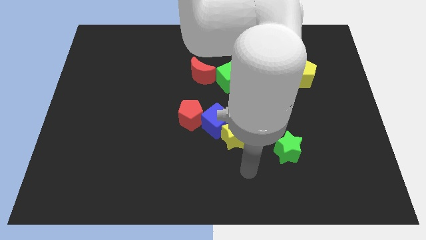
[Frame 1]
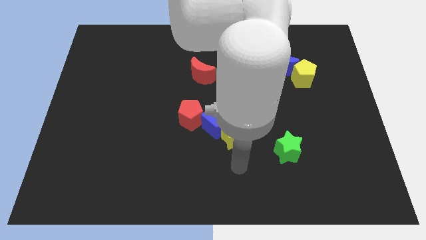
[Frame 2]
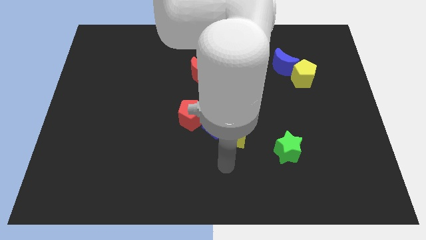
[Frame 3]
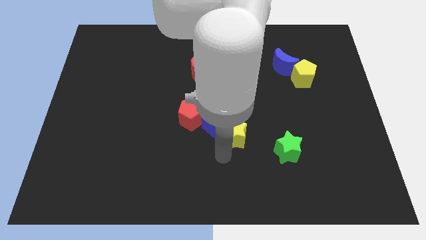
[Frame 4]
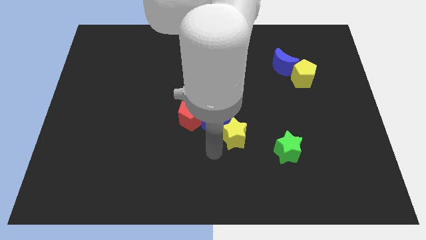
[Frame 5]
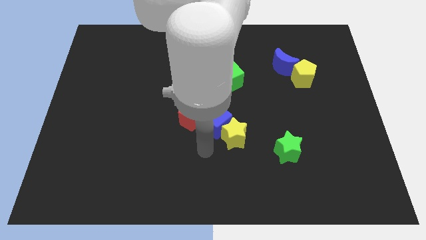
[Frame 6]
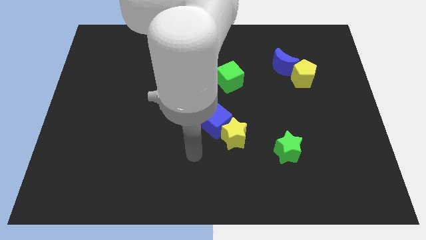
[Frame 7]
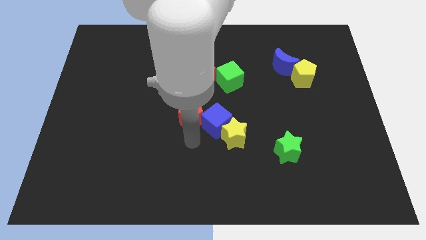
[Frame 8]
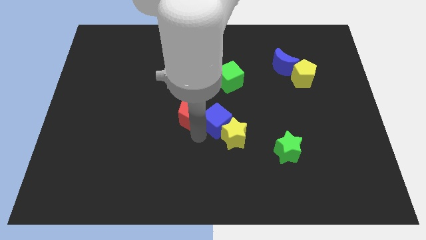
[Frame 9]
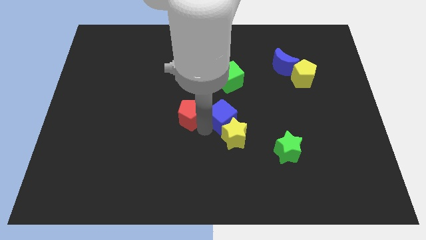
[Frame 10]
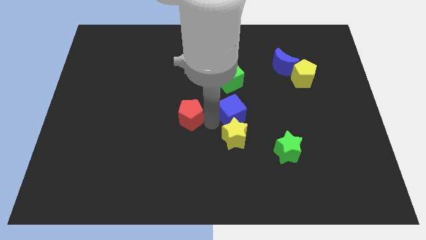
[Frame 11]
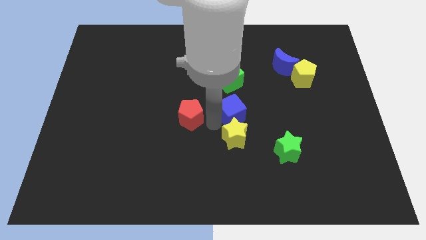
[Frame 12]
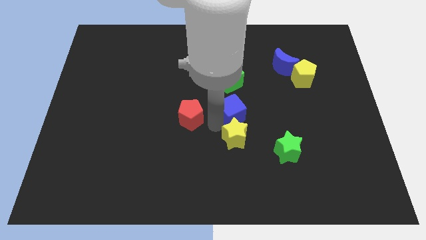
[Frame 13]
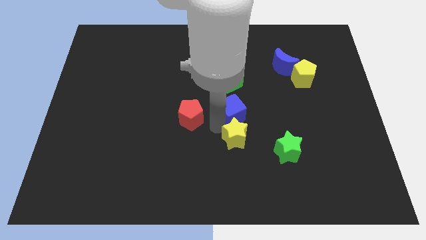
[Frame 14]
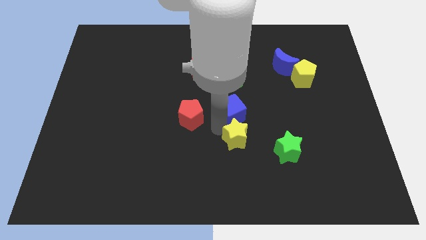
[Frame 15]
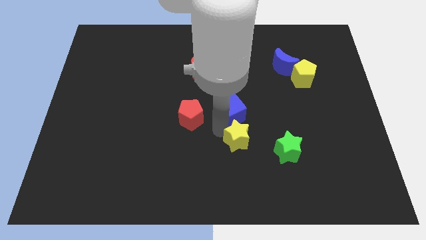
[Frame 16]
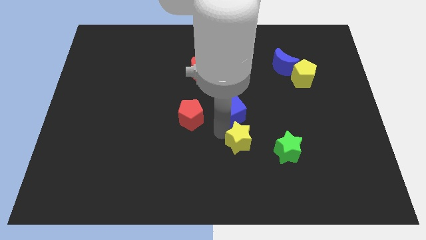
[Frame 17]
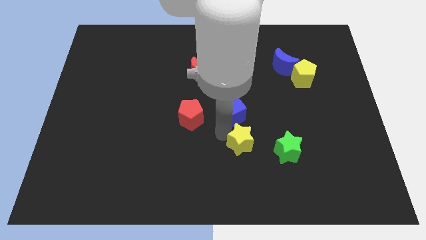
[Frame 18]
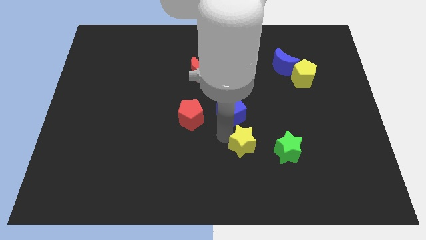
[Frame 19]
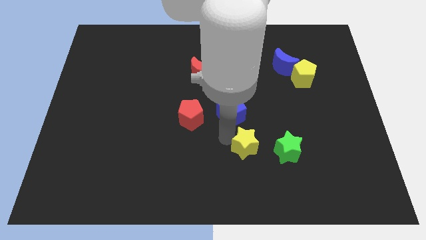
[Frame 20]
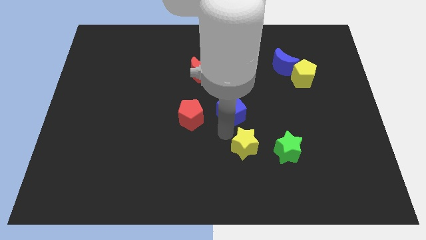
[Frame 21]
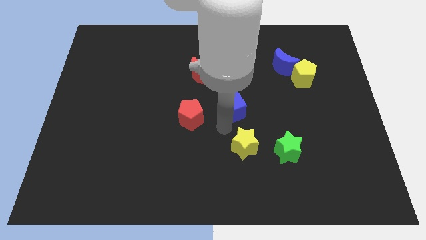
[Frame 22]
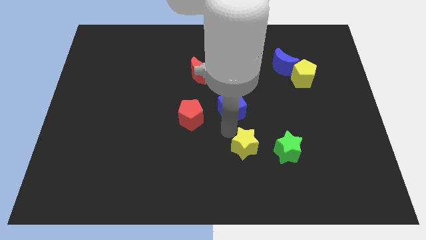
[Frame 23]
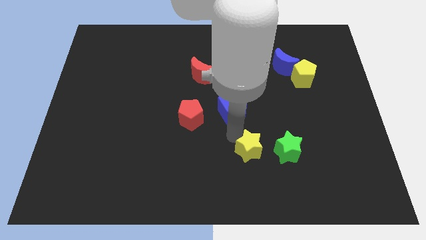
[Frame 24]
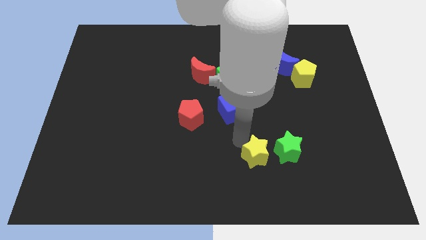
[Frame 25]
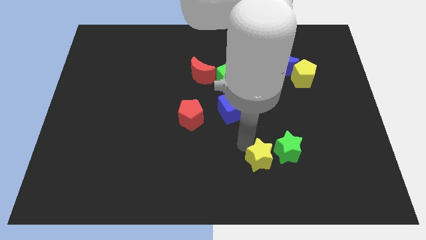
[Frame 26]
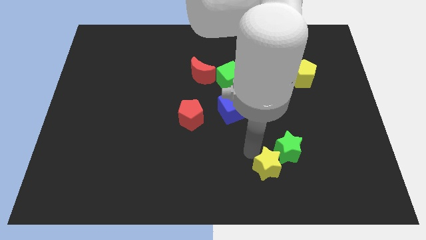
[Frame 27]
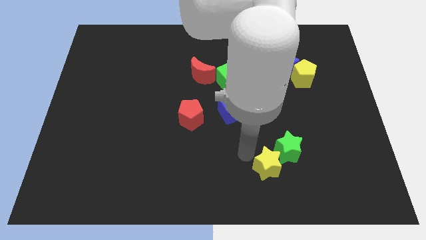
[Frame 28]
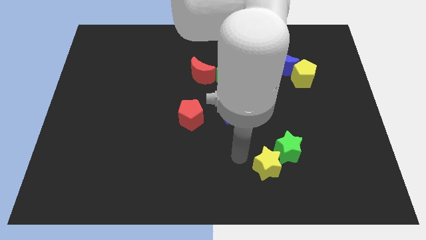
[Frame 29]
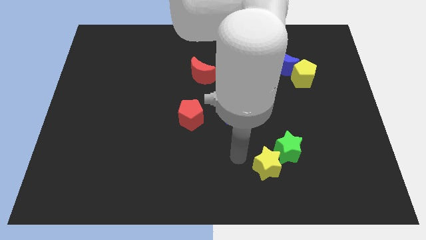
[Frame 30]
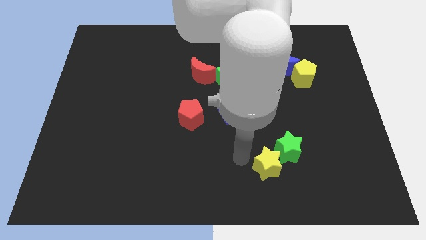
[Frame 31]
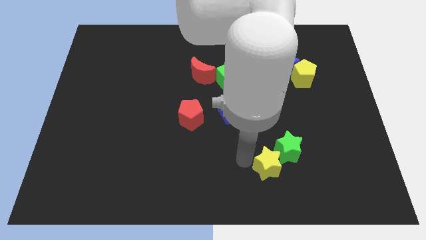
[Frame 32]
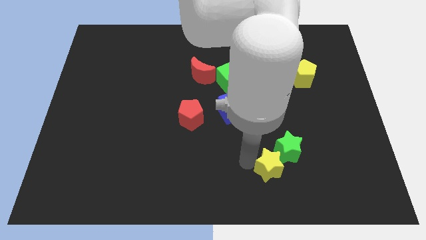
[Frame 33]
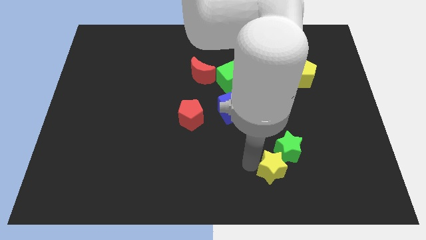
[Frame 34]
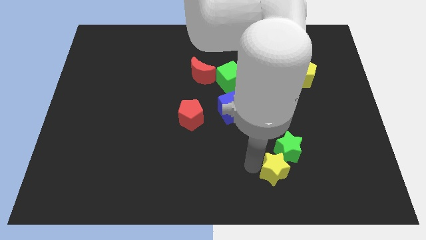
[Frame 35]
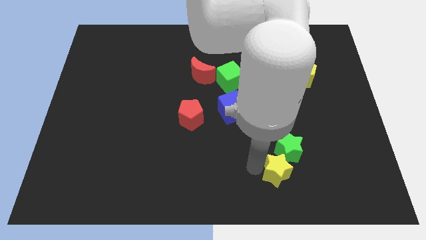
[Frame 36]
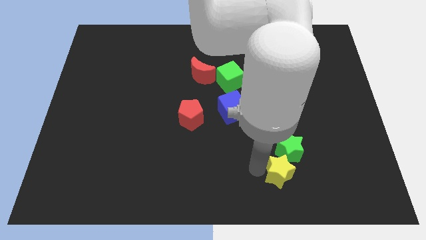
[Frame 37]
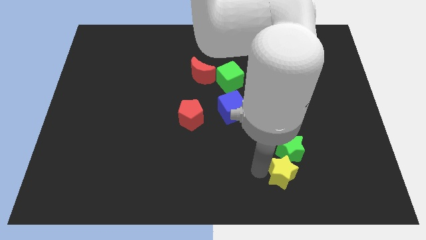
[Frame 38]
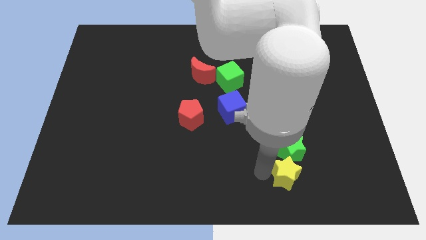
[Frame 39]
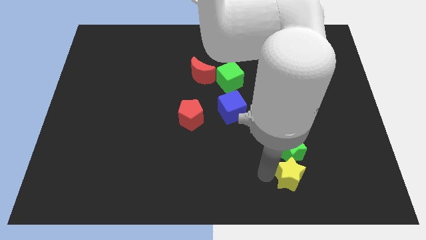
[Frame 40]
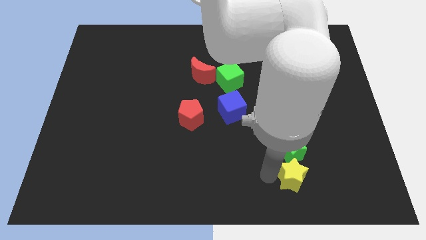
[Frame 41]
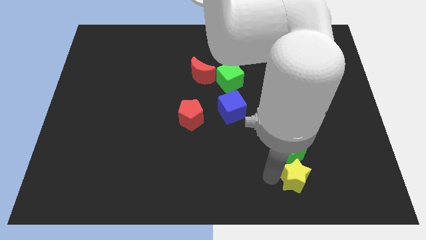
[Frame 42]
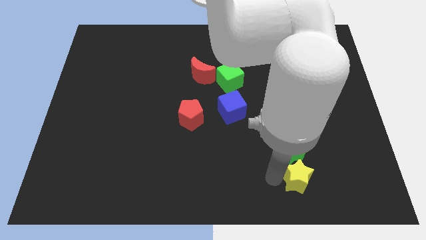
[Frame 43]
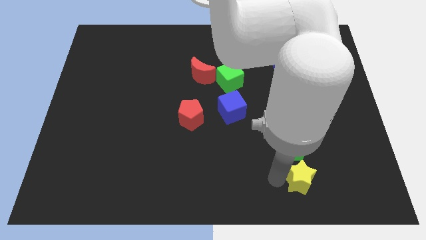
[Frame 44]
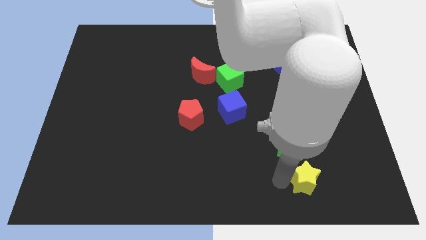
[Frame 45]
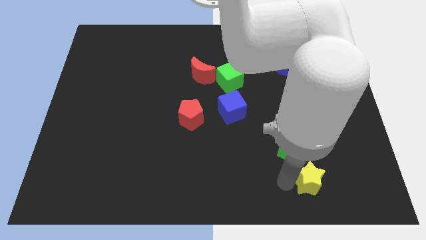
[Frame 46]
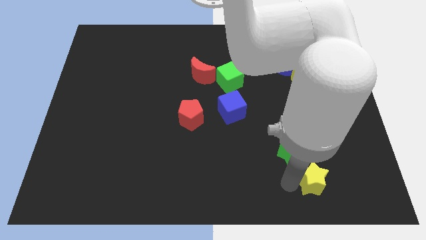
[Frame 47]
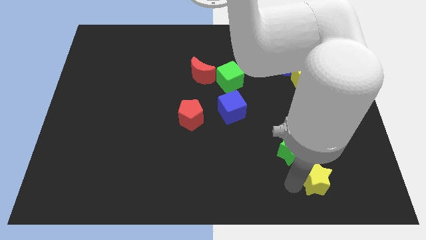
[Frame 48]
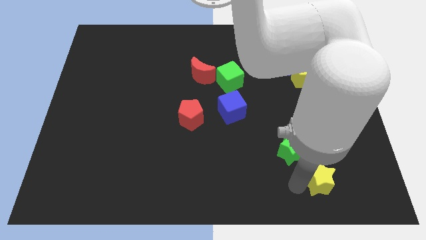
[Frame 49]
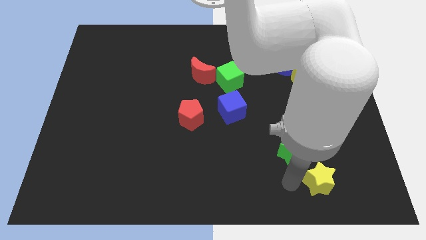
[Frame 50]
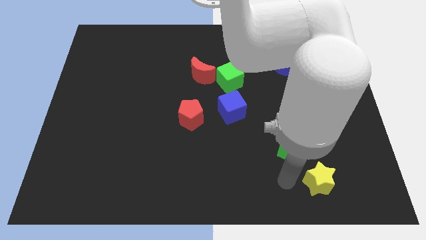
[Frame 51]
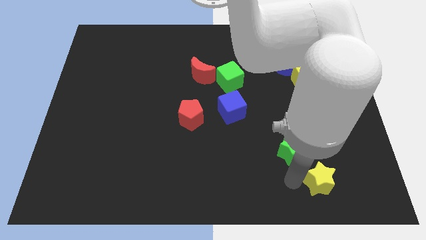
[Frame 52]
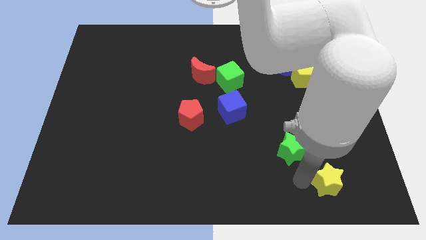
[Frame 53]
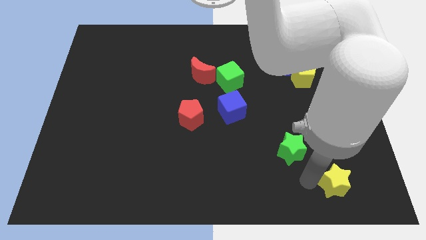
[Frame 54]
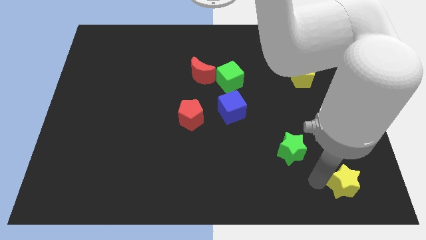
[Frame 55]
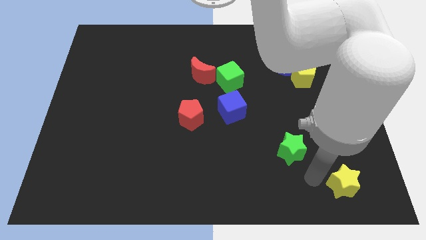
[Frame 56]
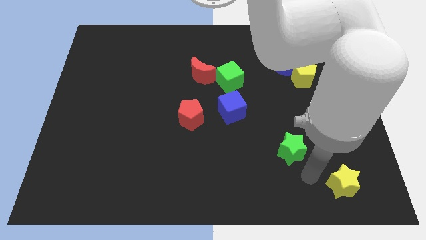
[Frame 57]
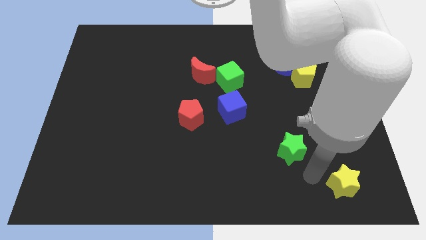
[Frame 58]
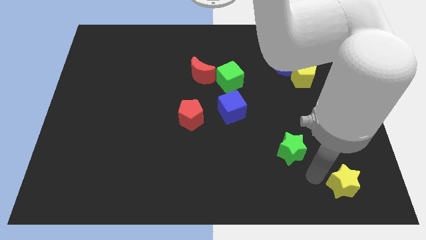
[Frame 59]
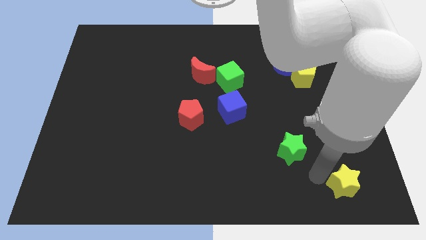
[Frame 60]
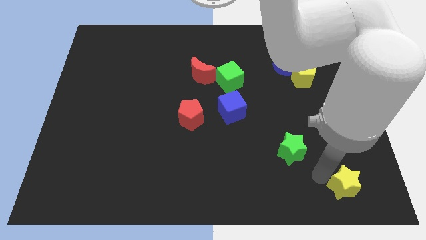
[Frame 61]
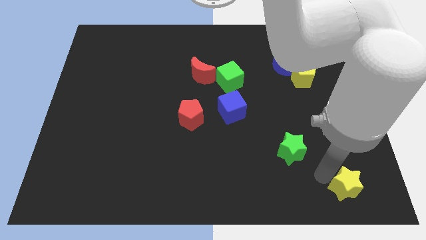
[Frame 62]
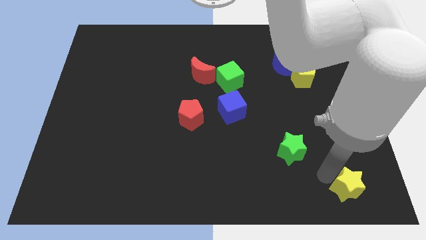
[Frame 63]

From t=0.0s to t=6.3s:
move the yellow star to the bottom right corner
